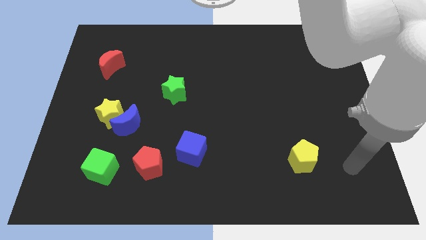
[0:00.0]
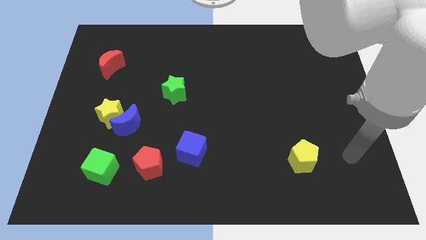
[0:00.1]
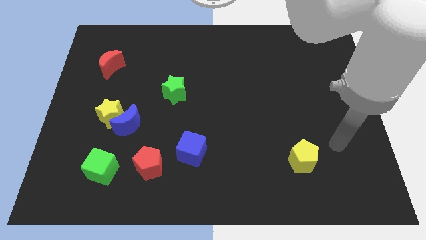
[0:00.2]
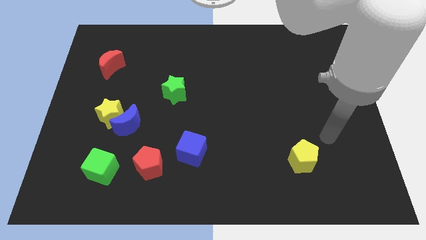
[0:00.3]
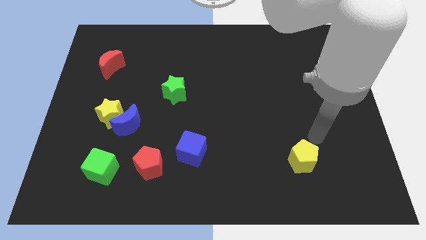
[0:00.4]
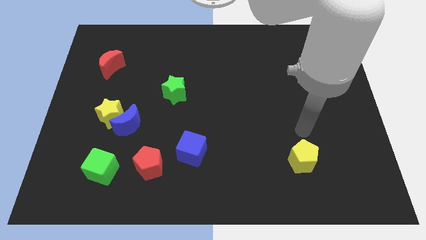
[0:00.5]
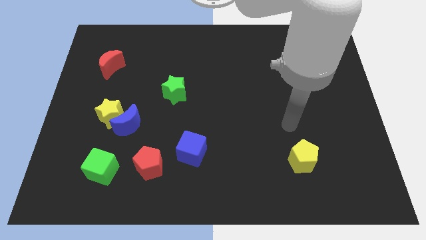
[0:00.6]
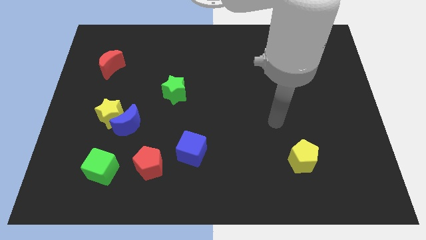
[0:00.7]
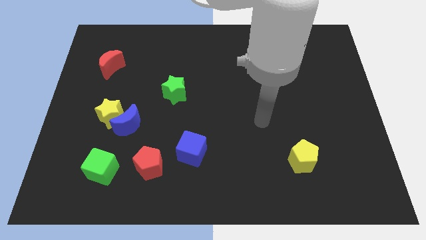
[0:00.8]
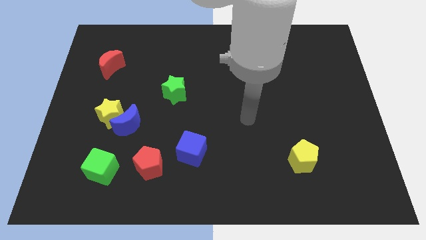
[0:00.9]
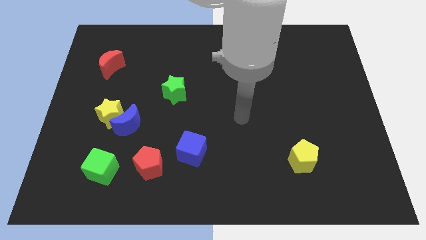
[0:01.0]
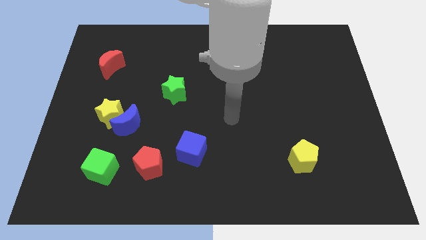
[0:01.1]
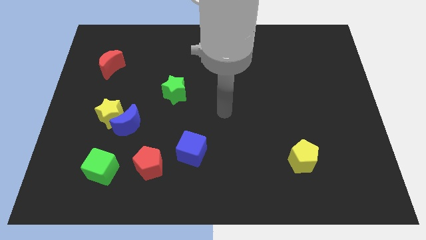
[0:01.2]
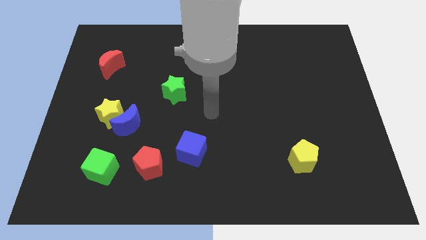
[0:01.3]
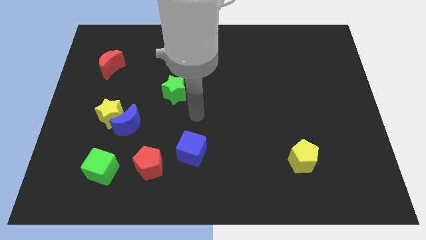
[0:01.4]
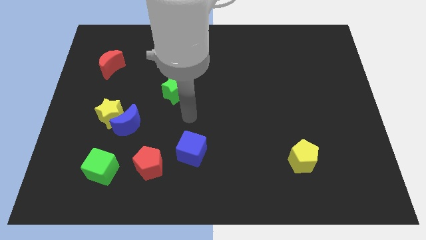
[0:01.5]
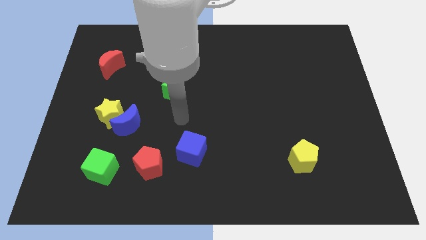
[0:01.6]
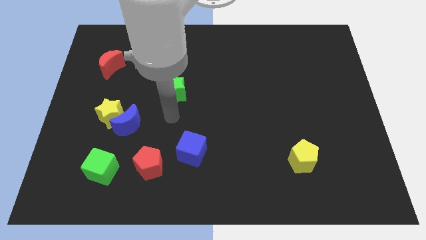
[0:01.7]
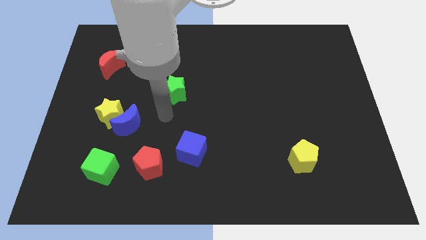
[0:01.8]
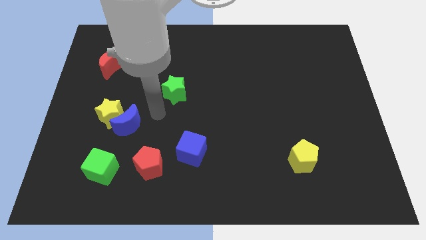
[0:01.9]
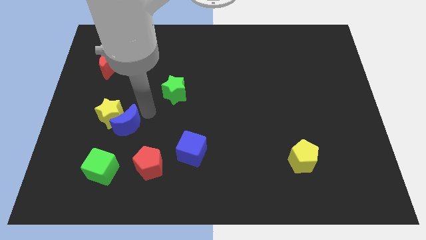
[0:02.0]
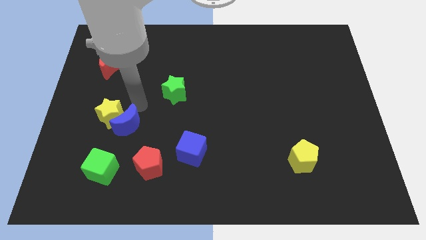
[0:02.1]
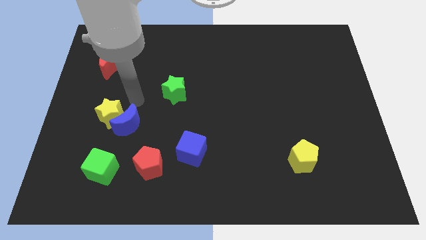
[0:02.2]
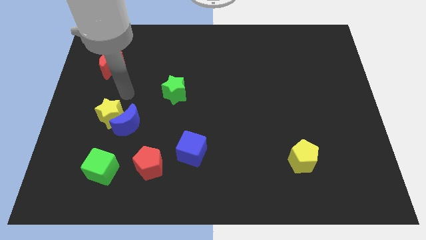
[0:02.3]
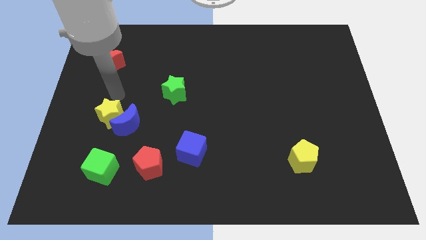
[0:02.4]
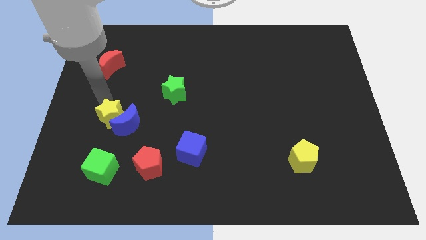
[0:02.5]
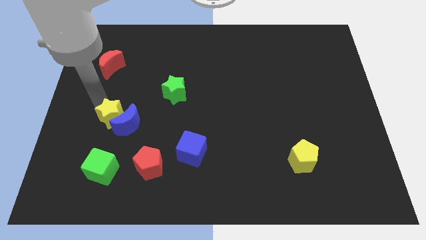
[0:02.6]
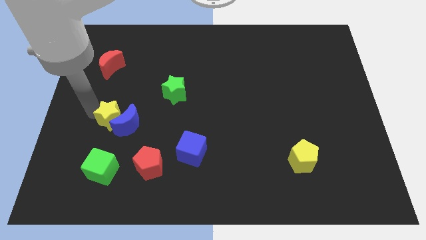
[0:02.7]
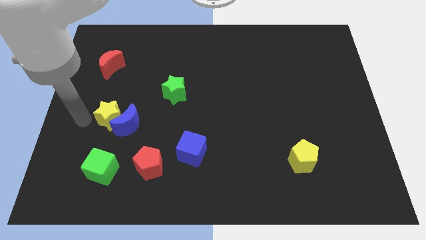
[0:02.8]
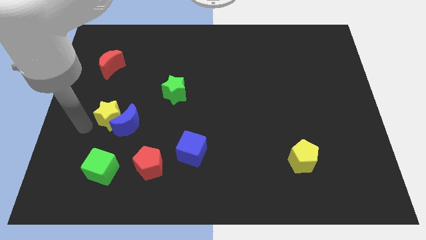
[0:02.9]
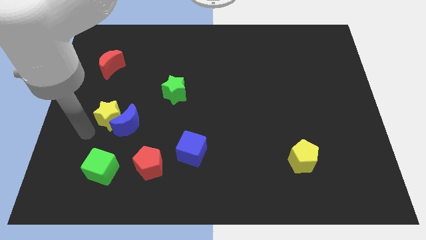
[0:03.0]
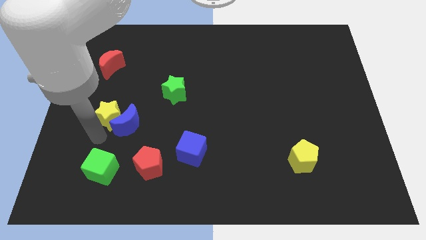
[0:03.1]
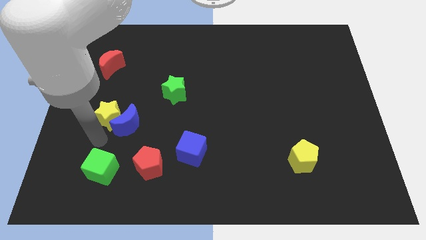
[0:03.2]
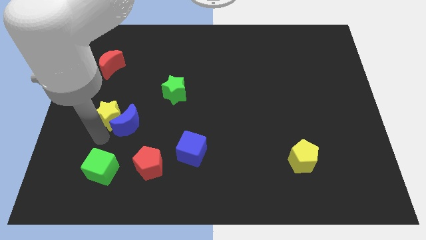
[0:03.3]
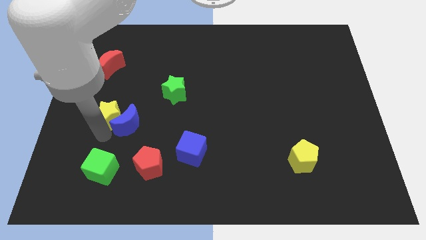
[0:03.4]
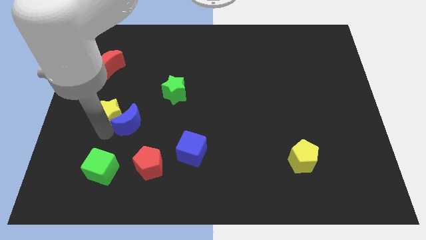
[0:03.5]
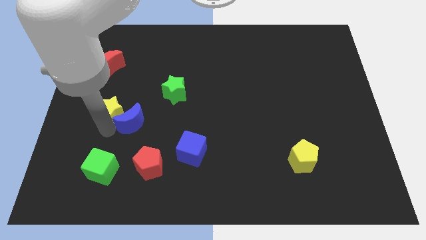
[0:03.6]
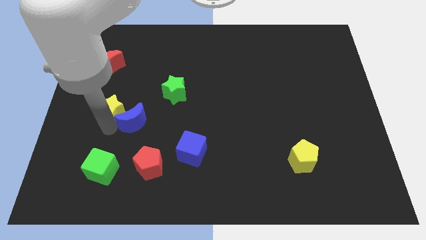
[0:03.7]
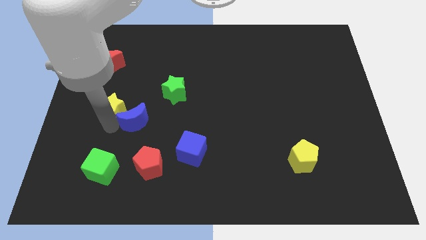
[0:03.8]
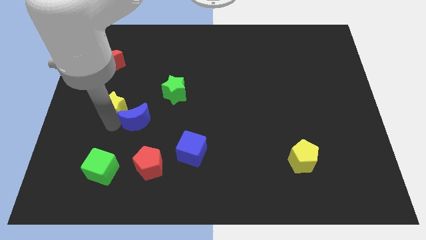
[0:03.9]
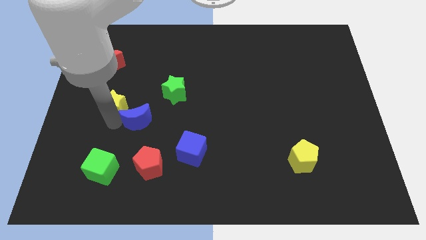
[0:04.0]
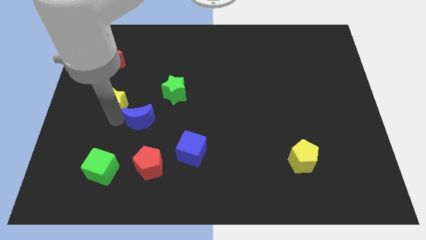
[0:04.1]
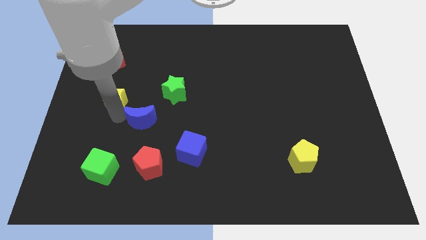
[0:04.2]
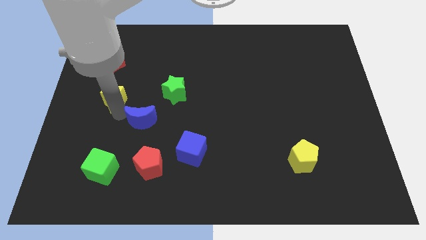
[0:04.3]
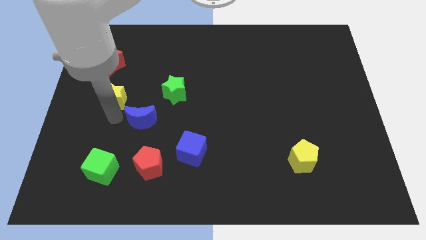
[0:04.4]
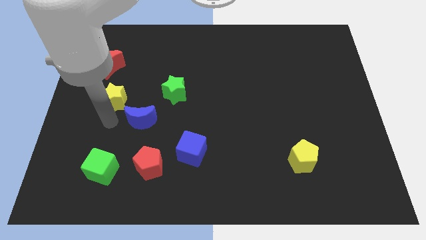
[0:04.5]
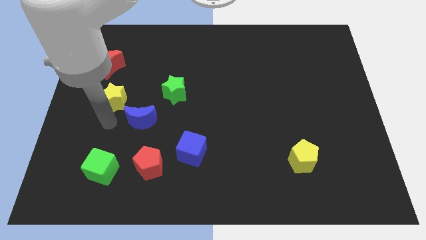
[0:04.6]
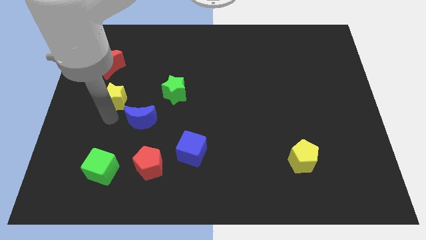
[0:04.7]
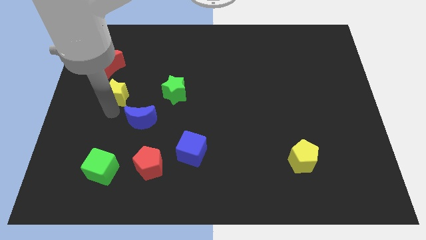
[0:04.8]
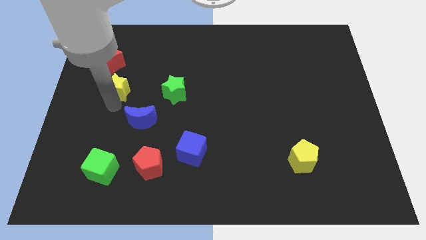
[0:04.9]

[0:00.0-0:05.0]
move the yellow star upwards a little bit

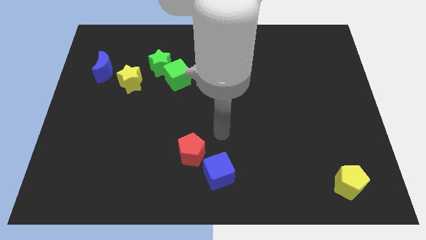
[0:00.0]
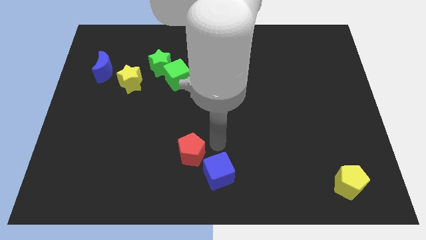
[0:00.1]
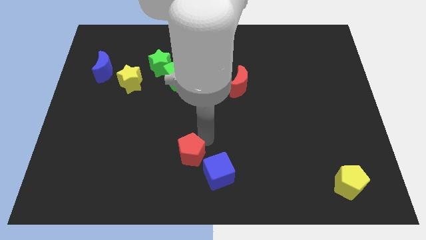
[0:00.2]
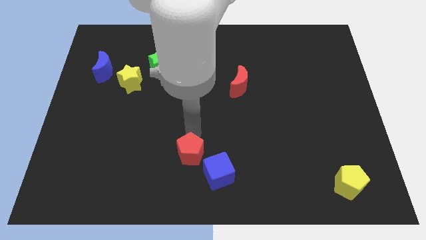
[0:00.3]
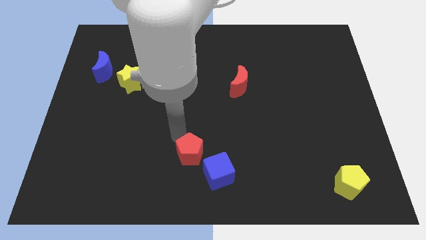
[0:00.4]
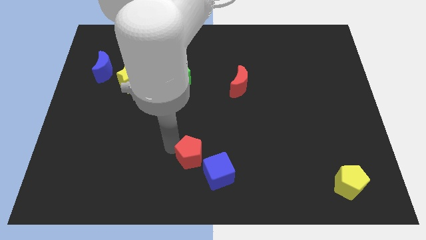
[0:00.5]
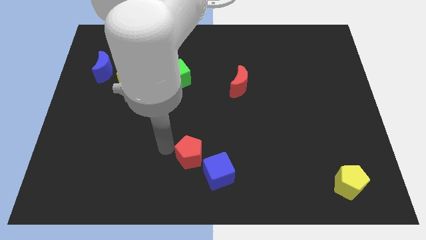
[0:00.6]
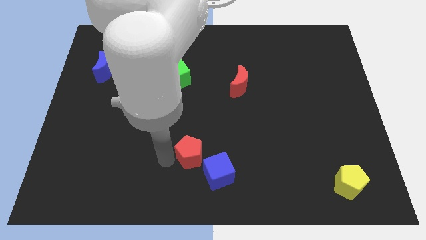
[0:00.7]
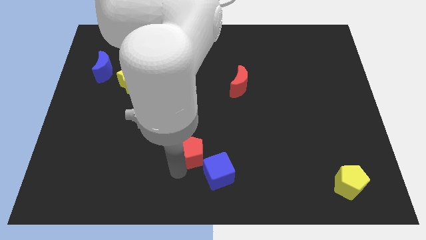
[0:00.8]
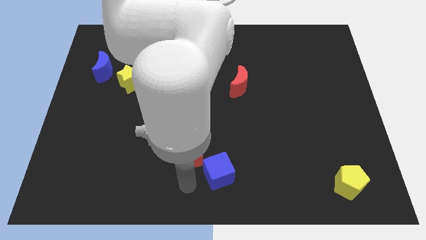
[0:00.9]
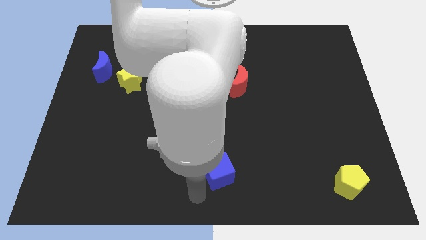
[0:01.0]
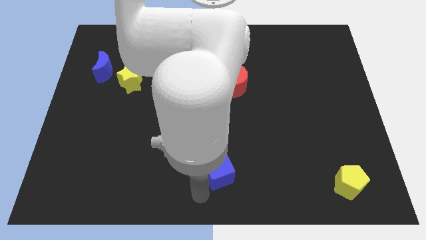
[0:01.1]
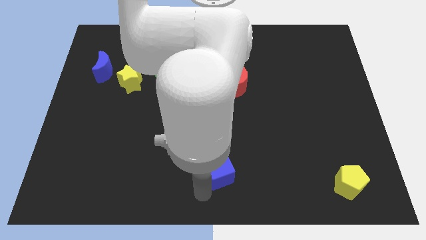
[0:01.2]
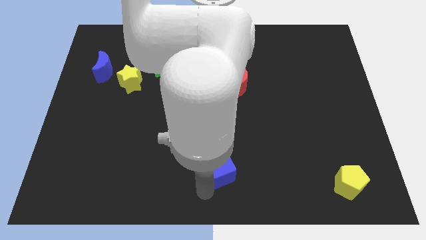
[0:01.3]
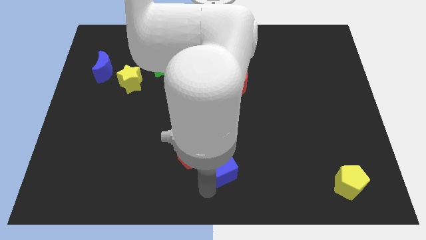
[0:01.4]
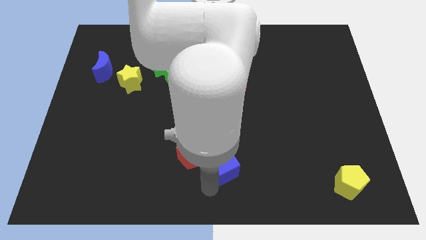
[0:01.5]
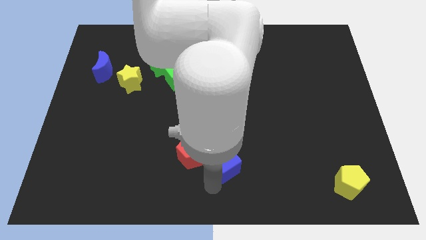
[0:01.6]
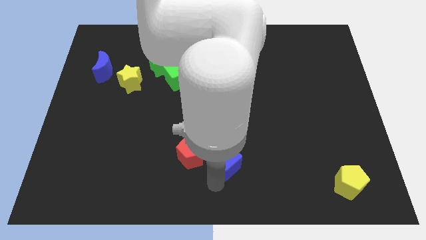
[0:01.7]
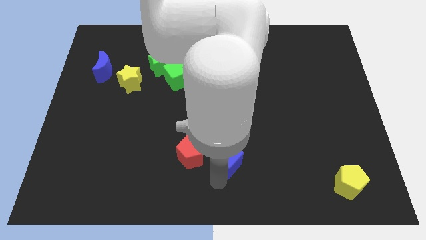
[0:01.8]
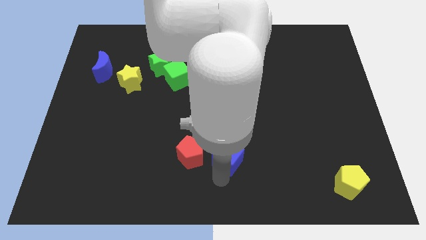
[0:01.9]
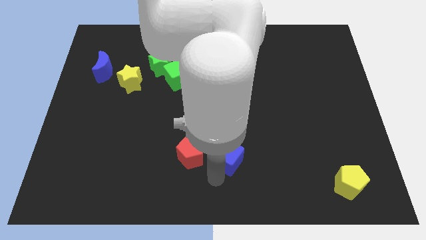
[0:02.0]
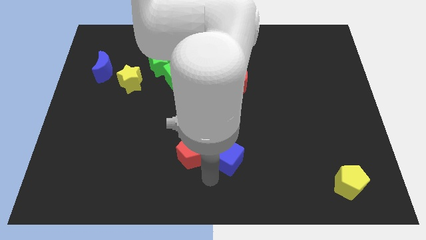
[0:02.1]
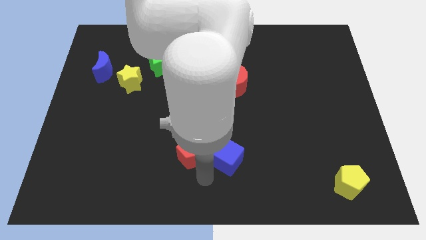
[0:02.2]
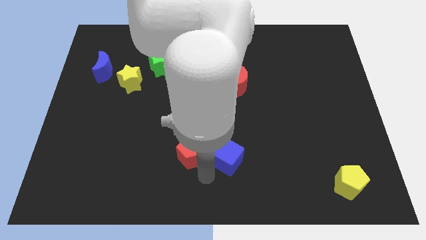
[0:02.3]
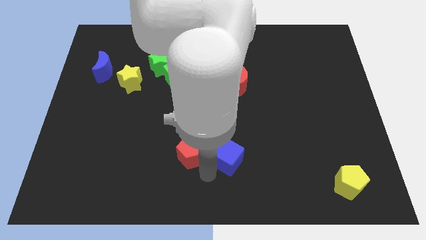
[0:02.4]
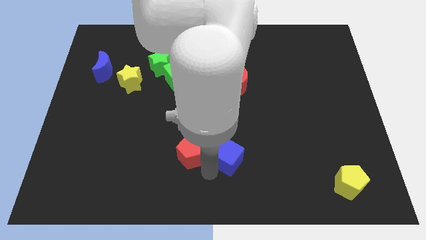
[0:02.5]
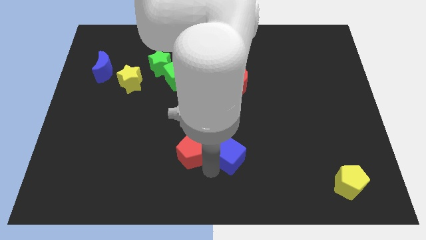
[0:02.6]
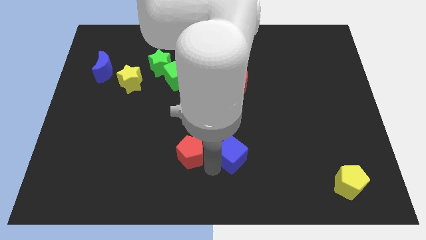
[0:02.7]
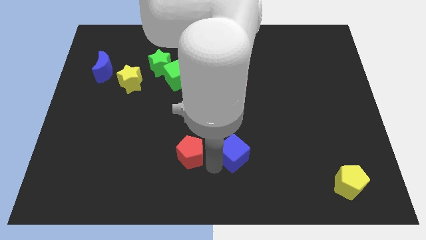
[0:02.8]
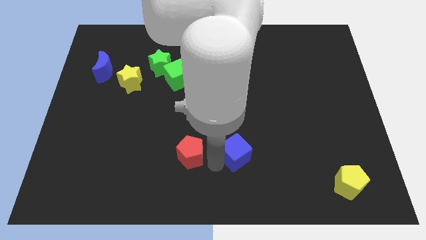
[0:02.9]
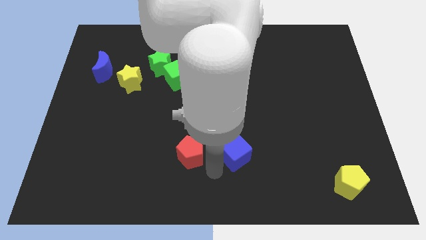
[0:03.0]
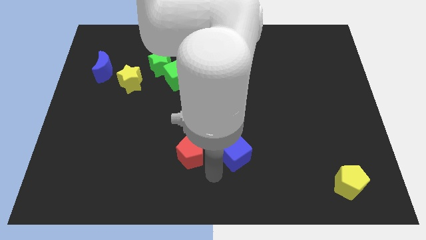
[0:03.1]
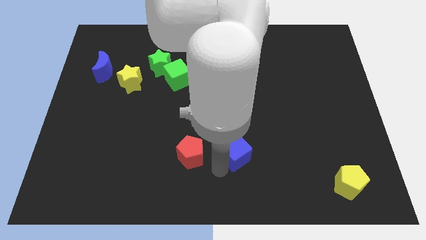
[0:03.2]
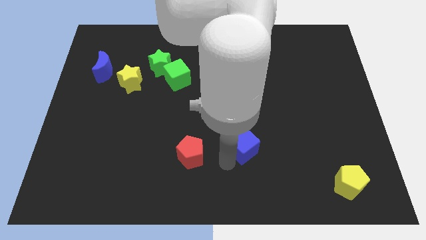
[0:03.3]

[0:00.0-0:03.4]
move the blue cube diagonally upwards and to the right a little
